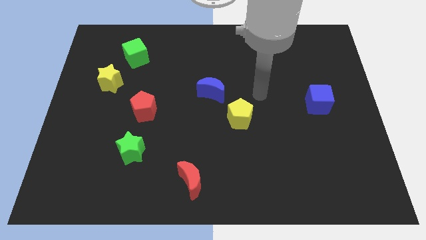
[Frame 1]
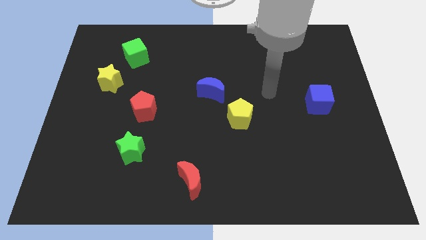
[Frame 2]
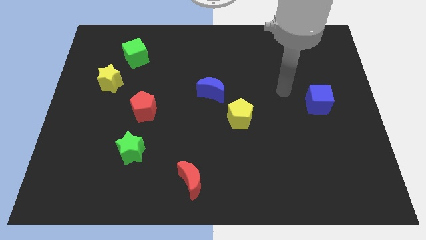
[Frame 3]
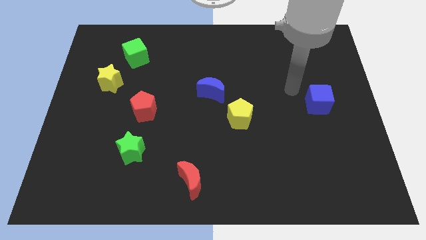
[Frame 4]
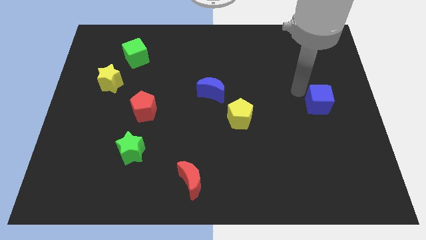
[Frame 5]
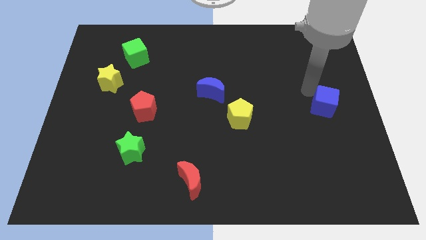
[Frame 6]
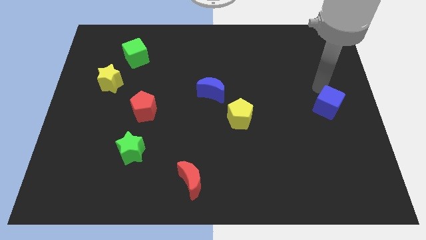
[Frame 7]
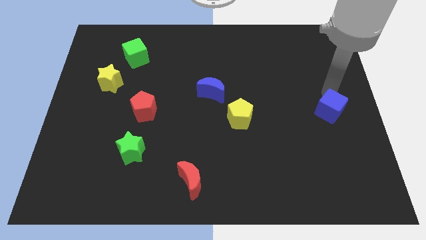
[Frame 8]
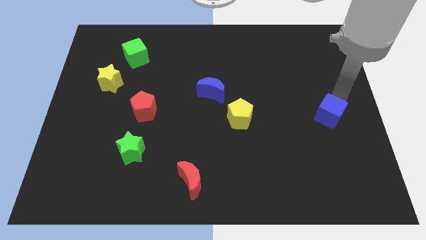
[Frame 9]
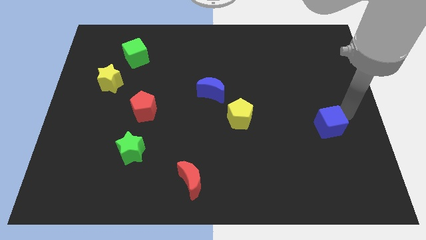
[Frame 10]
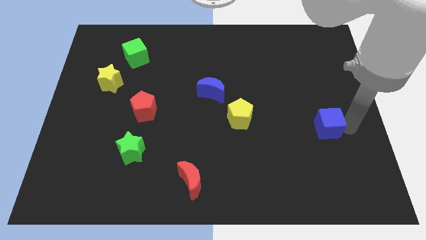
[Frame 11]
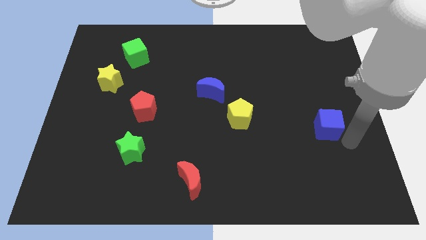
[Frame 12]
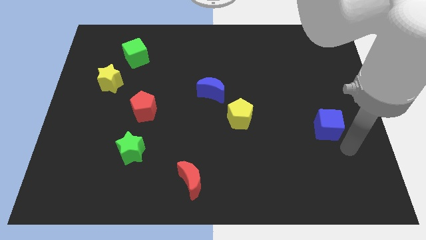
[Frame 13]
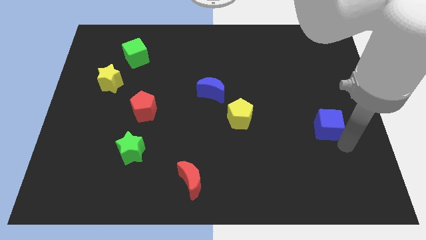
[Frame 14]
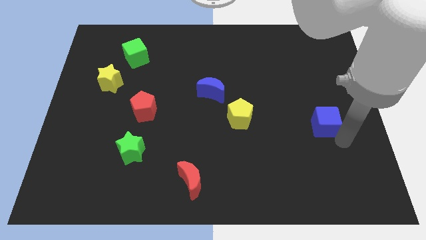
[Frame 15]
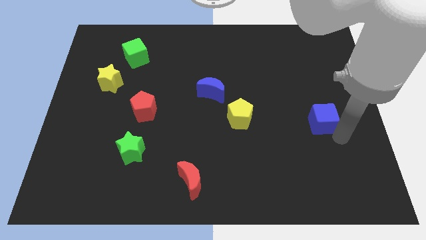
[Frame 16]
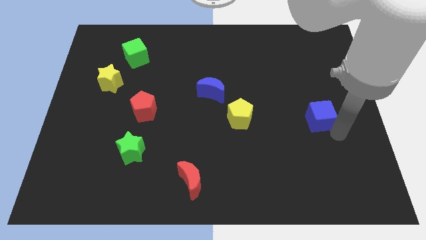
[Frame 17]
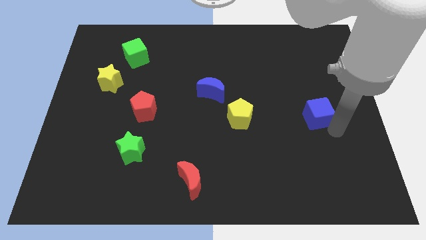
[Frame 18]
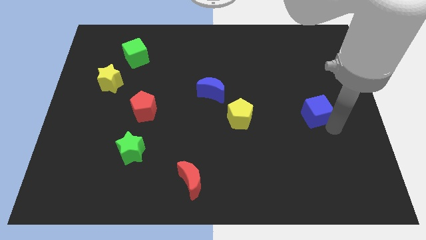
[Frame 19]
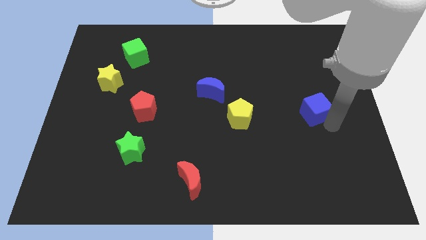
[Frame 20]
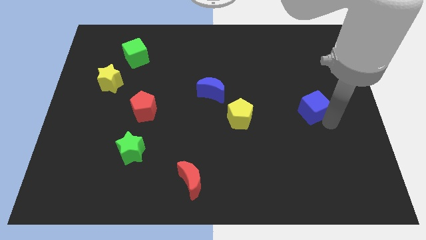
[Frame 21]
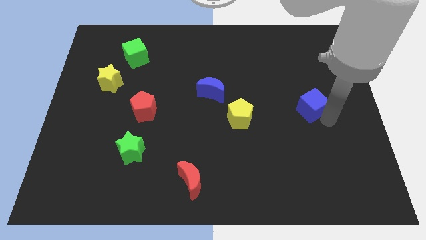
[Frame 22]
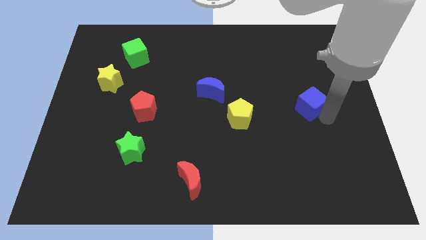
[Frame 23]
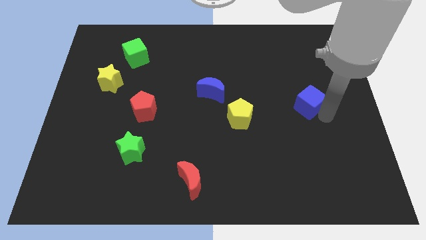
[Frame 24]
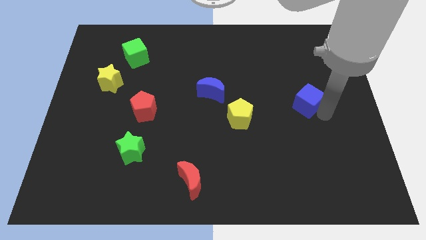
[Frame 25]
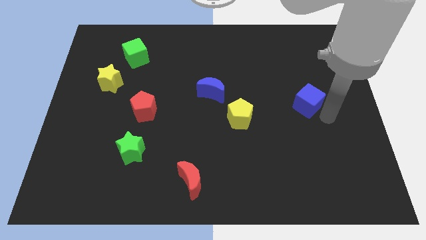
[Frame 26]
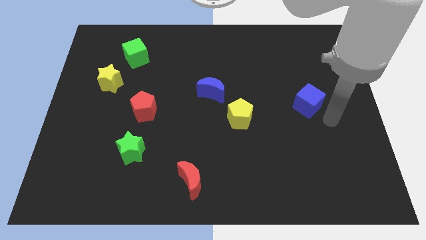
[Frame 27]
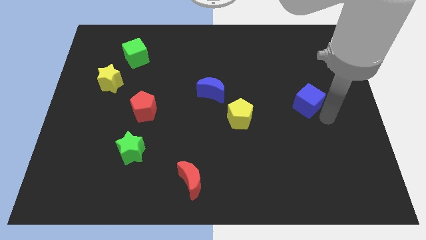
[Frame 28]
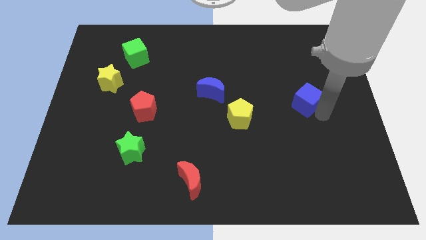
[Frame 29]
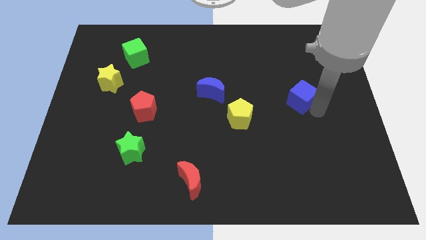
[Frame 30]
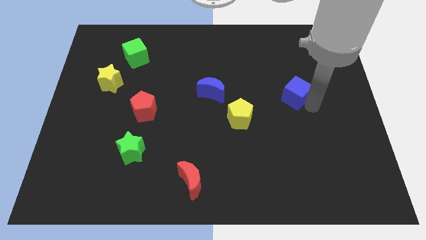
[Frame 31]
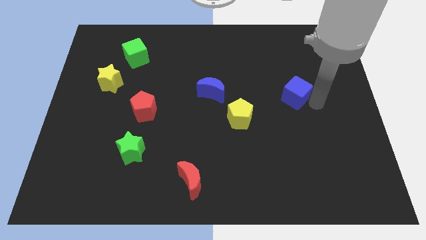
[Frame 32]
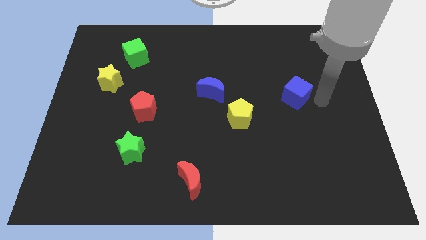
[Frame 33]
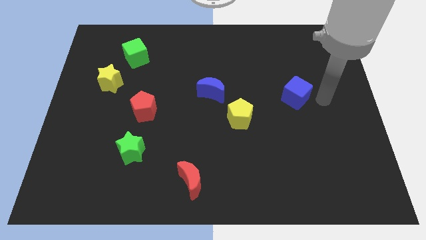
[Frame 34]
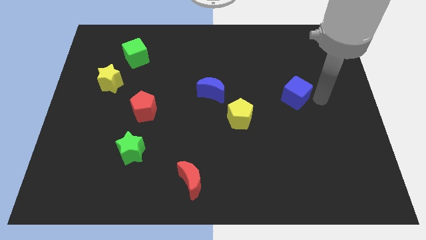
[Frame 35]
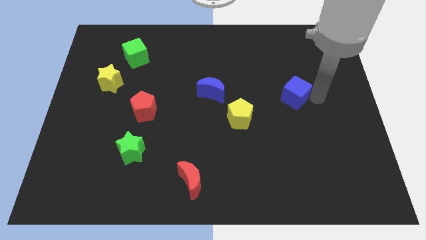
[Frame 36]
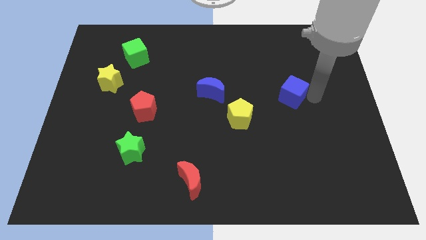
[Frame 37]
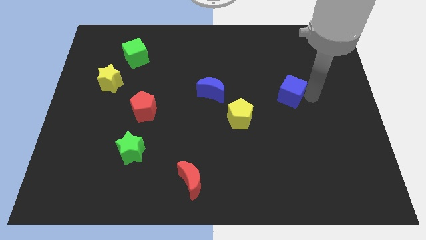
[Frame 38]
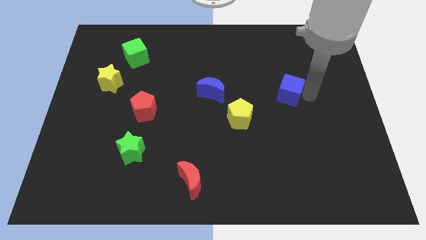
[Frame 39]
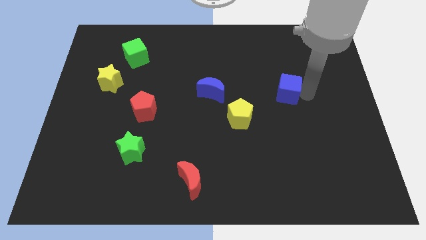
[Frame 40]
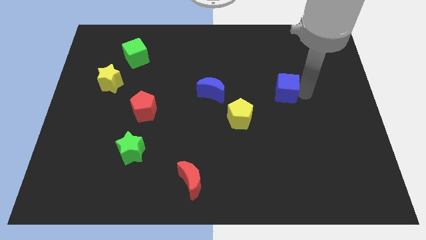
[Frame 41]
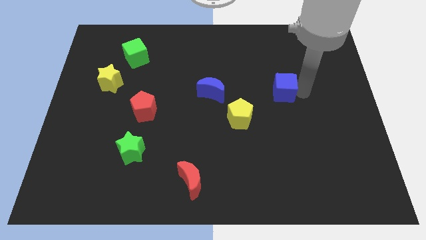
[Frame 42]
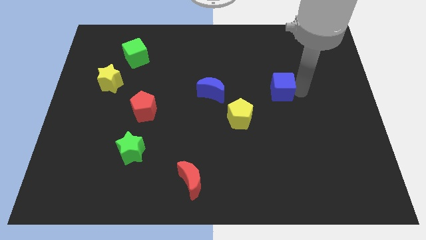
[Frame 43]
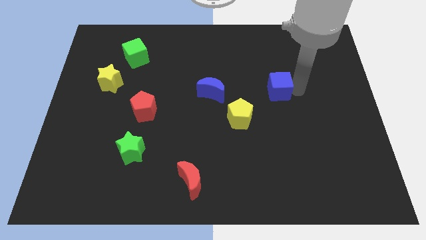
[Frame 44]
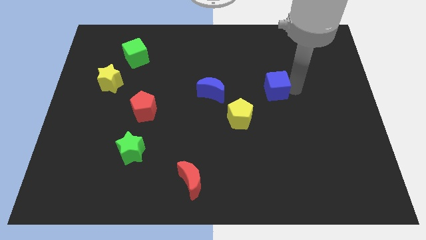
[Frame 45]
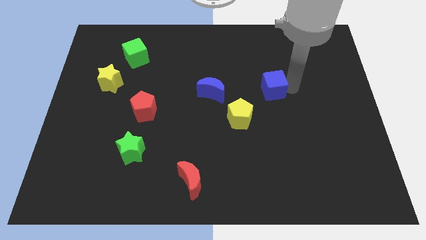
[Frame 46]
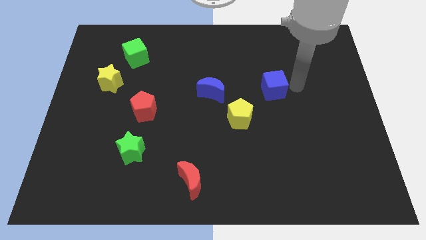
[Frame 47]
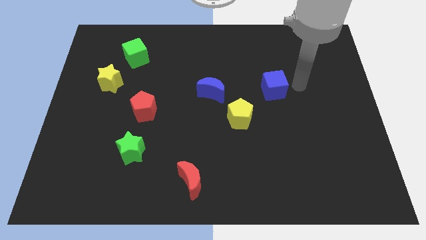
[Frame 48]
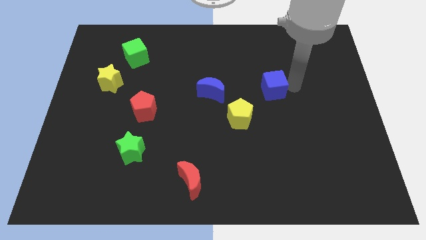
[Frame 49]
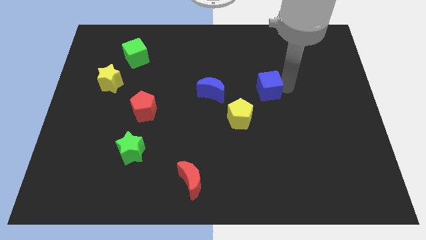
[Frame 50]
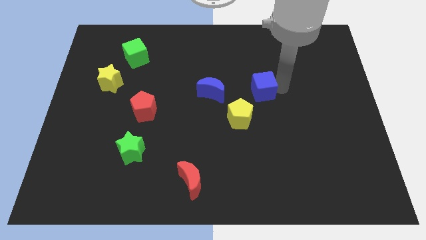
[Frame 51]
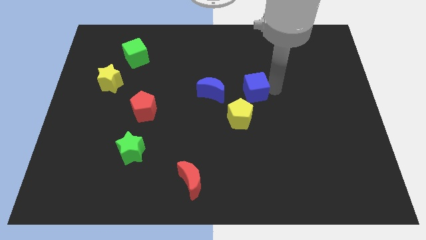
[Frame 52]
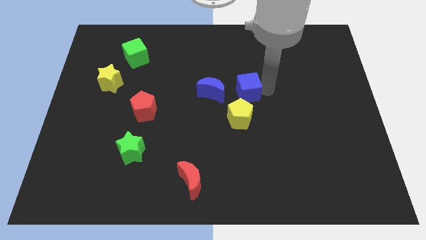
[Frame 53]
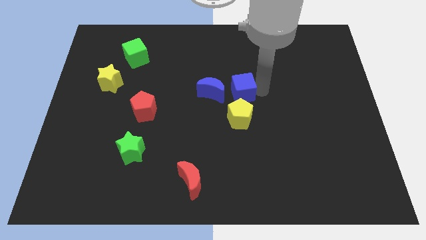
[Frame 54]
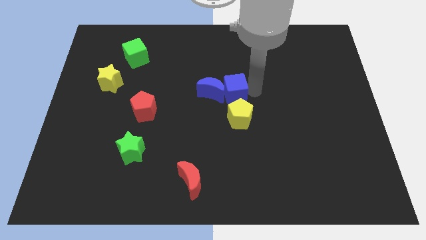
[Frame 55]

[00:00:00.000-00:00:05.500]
put the blue cube next to the blue moon

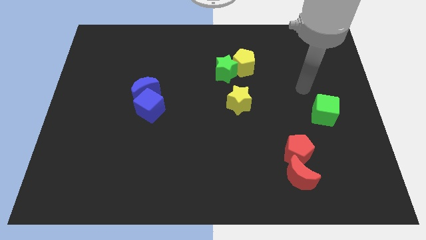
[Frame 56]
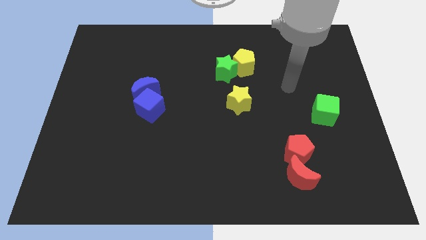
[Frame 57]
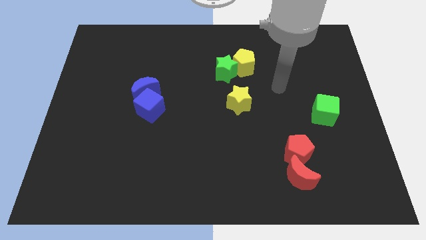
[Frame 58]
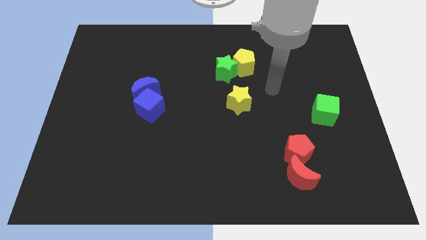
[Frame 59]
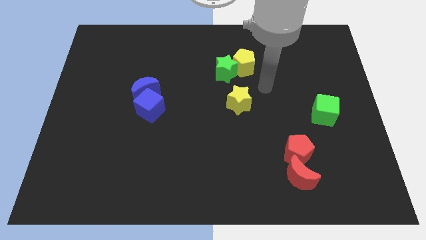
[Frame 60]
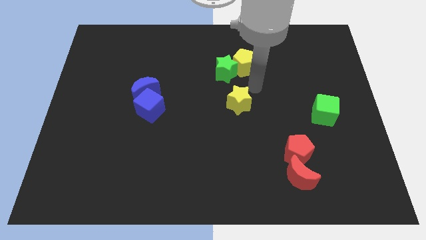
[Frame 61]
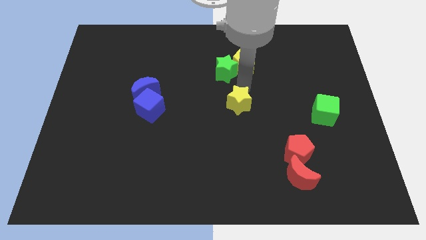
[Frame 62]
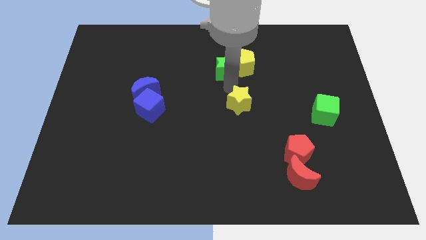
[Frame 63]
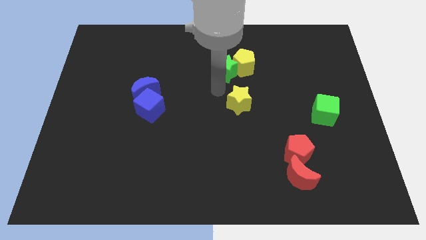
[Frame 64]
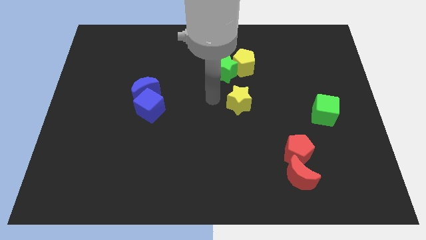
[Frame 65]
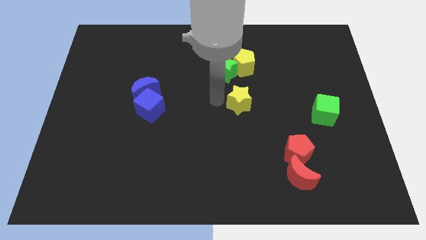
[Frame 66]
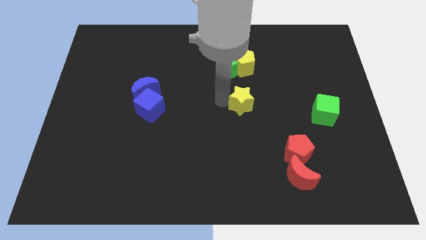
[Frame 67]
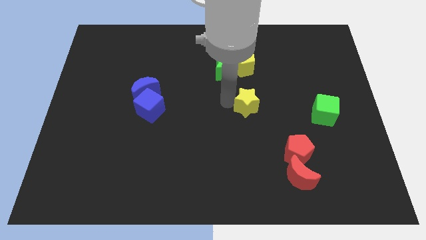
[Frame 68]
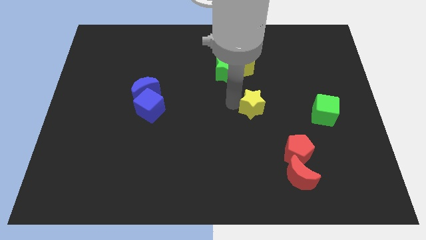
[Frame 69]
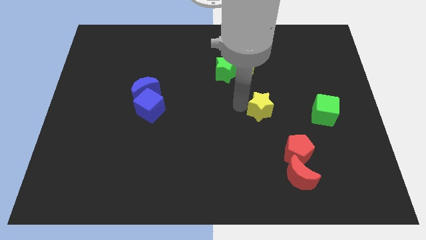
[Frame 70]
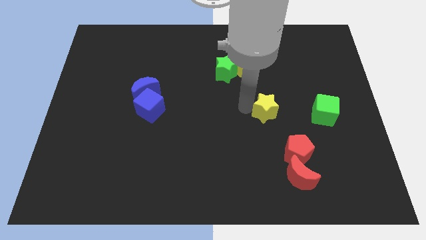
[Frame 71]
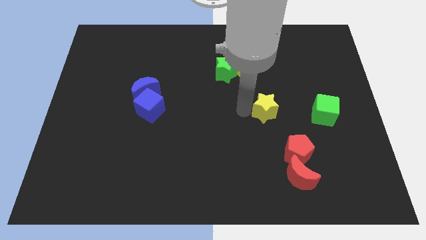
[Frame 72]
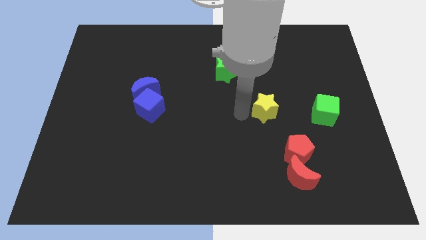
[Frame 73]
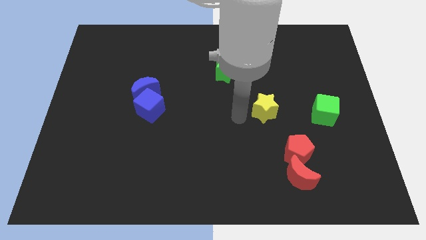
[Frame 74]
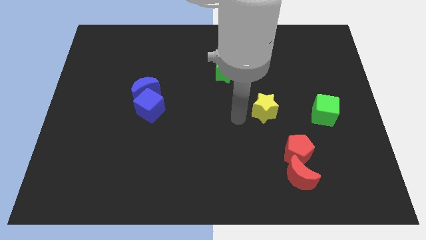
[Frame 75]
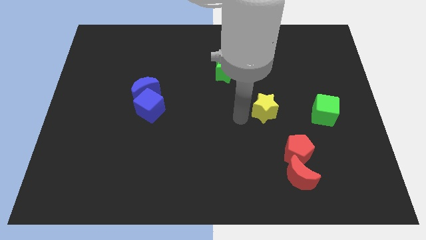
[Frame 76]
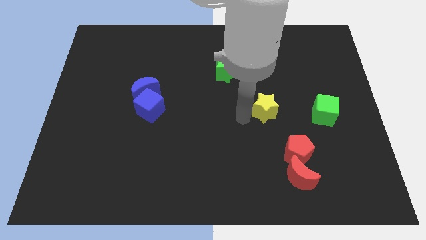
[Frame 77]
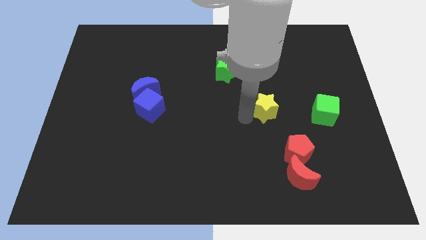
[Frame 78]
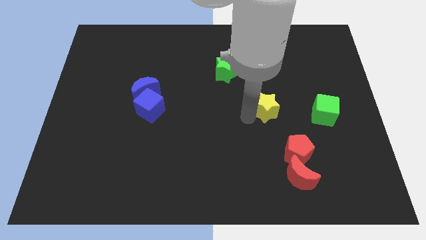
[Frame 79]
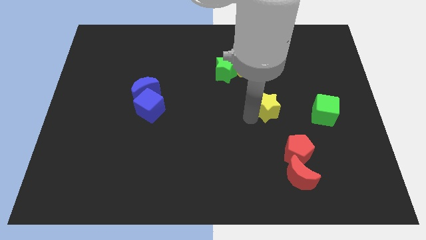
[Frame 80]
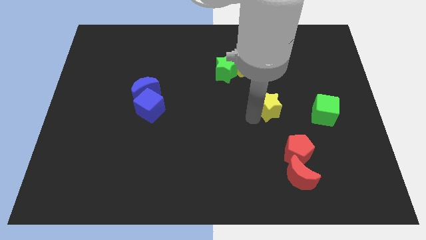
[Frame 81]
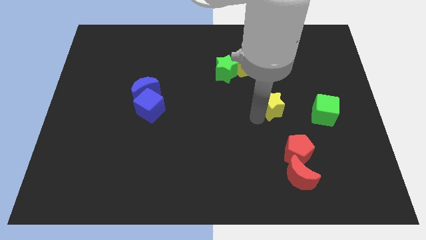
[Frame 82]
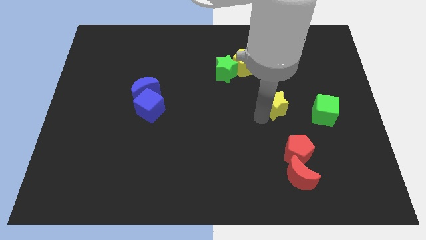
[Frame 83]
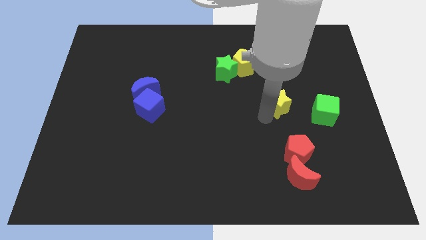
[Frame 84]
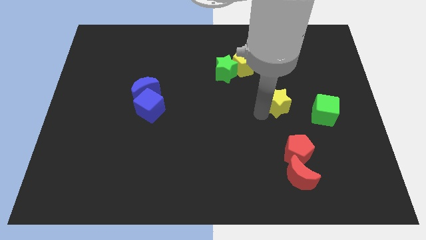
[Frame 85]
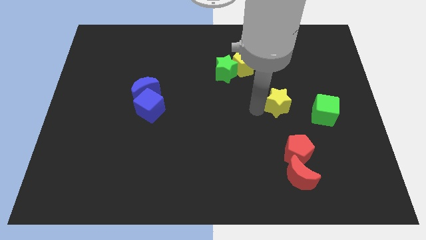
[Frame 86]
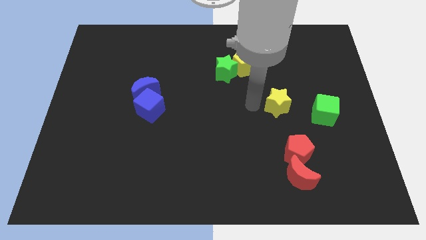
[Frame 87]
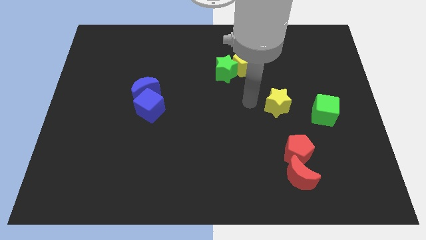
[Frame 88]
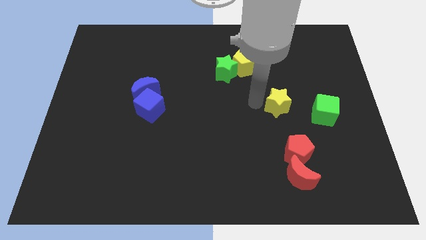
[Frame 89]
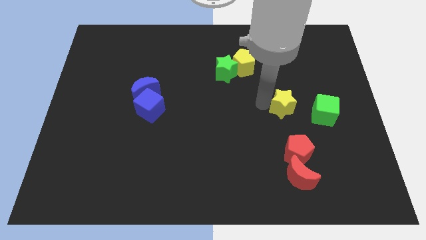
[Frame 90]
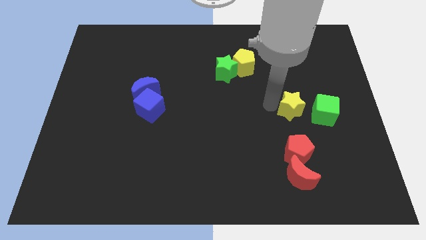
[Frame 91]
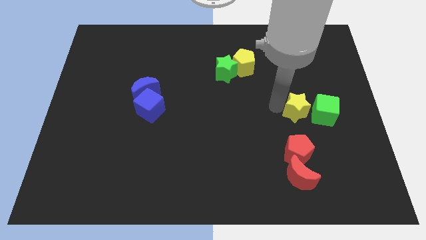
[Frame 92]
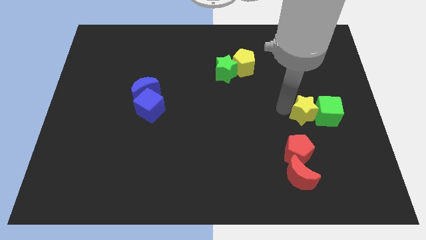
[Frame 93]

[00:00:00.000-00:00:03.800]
move the yellow star to the green cube
